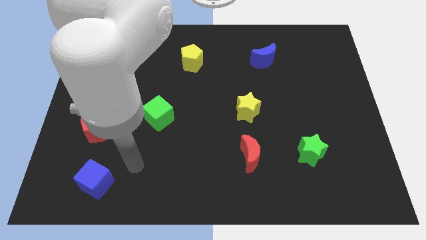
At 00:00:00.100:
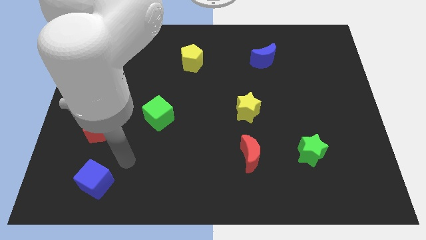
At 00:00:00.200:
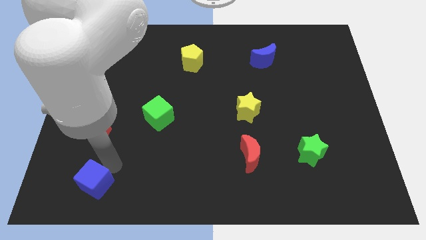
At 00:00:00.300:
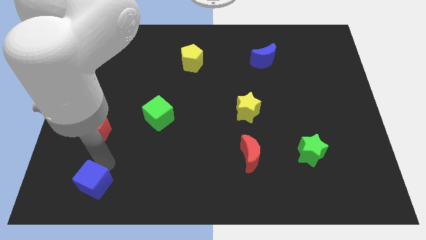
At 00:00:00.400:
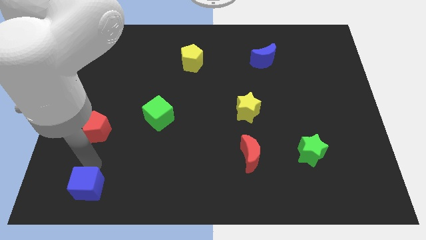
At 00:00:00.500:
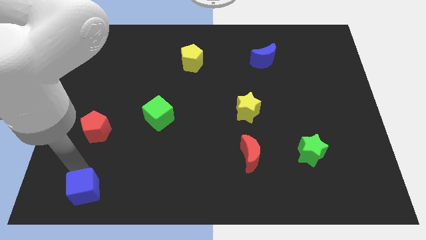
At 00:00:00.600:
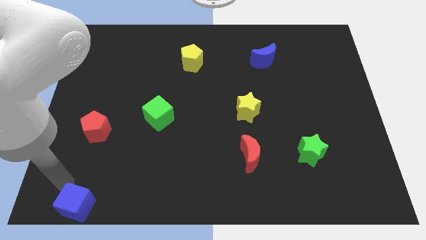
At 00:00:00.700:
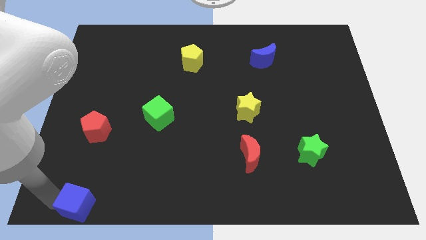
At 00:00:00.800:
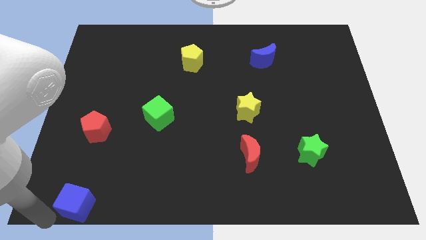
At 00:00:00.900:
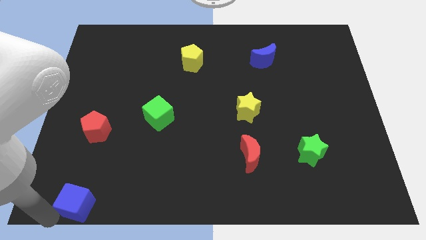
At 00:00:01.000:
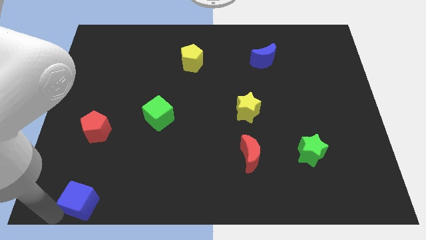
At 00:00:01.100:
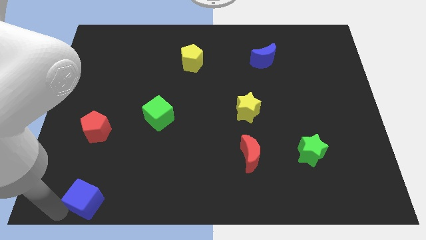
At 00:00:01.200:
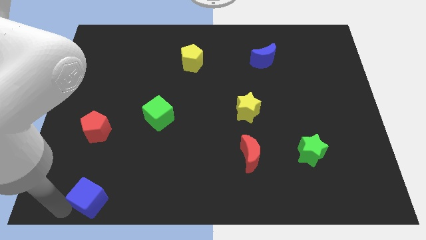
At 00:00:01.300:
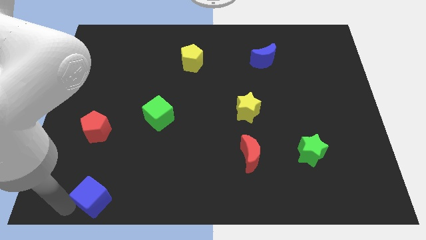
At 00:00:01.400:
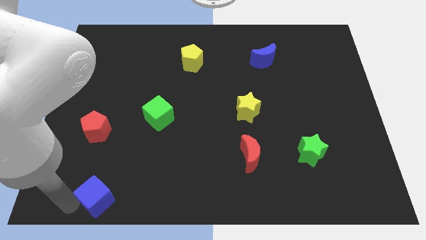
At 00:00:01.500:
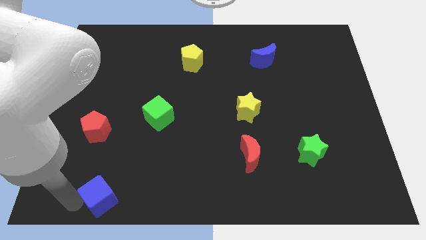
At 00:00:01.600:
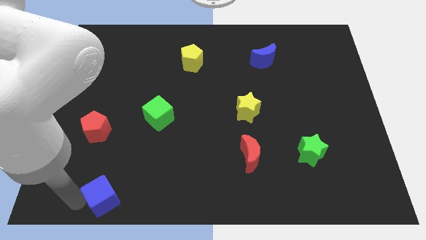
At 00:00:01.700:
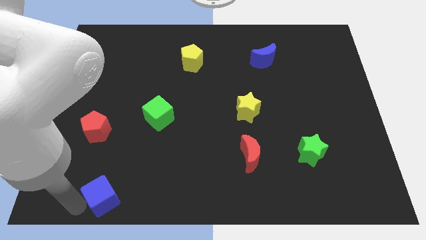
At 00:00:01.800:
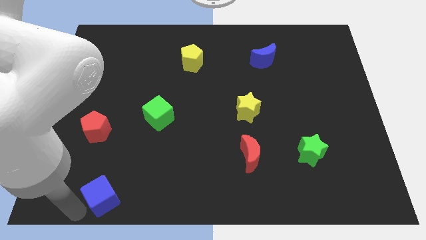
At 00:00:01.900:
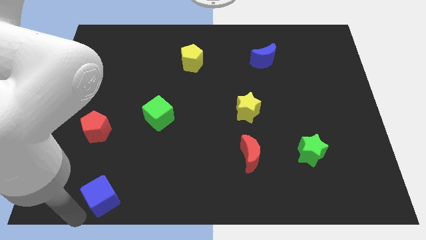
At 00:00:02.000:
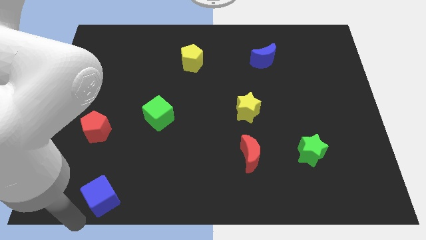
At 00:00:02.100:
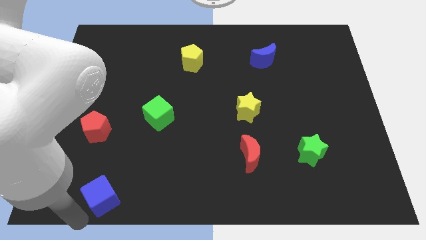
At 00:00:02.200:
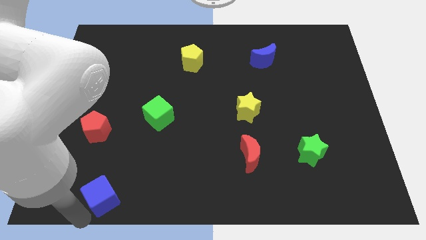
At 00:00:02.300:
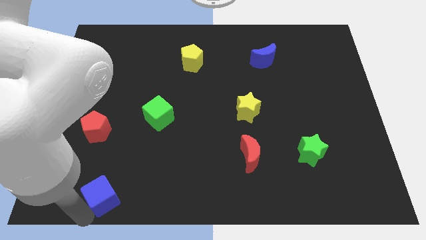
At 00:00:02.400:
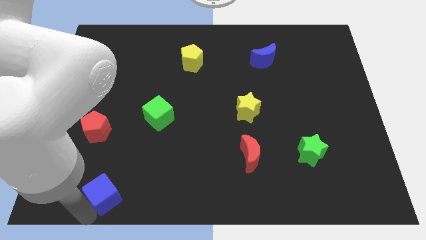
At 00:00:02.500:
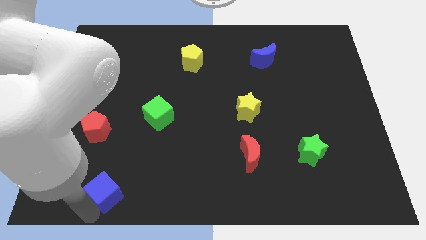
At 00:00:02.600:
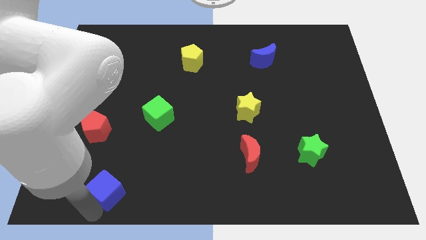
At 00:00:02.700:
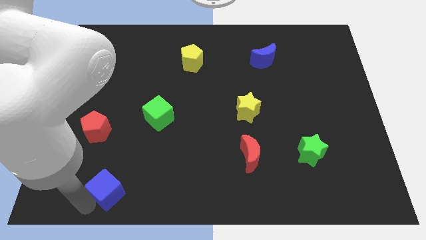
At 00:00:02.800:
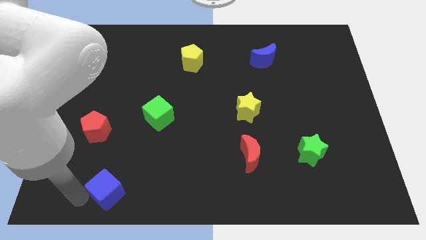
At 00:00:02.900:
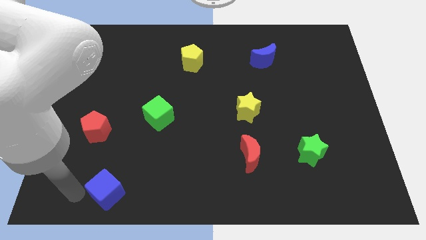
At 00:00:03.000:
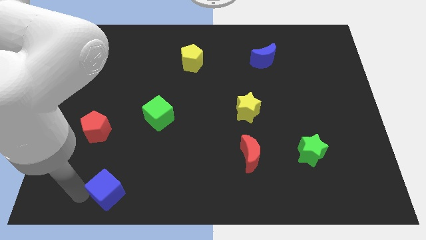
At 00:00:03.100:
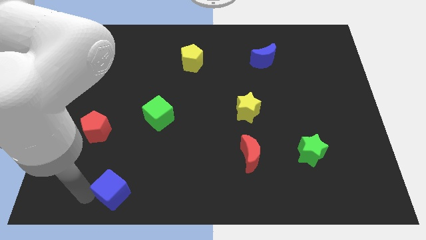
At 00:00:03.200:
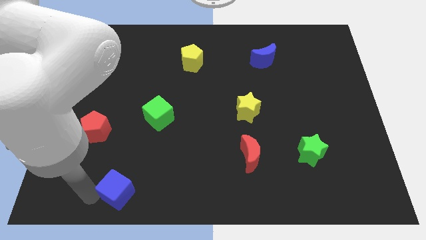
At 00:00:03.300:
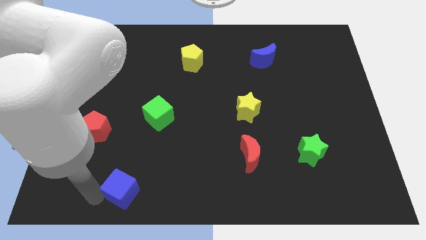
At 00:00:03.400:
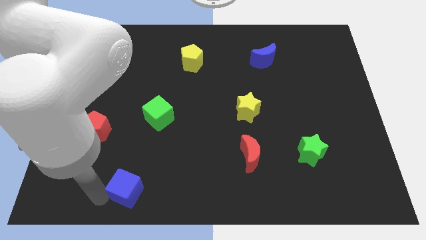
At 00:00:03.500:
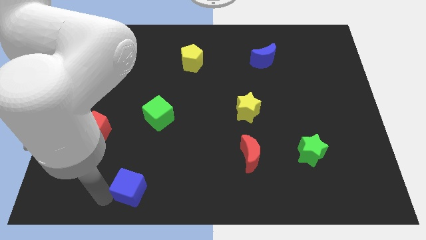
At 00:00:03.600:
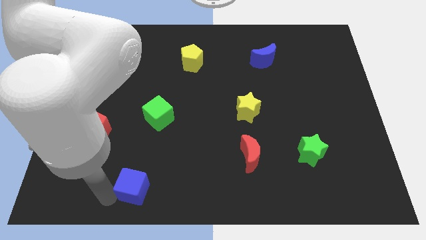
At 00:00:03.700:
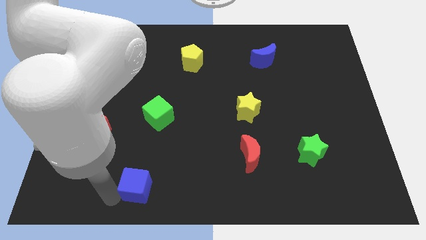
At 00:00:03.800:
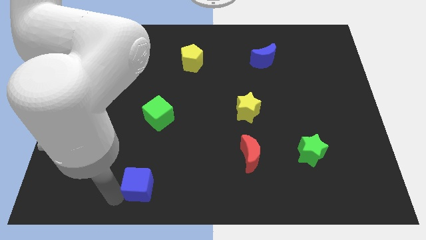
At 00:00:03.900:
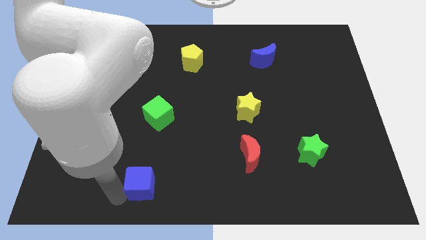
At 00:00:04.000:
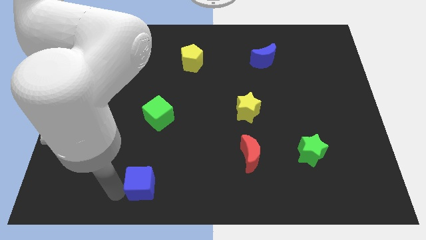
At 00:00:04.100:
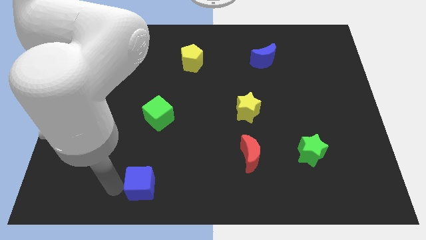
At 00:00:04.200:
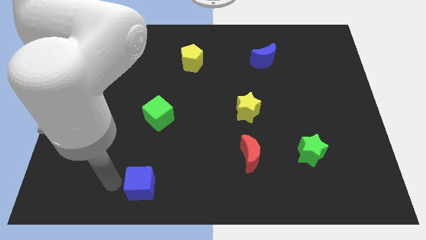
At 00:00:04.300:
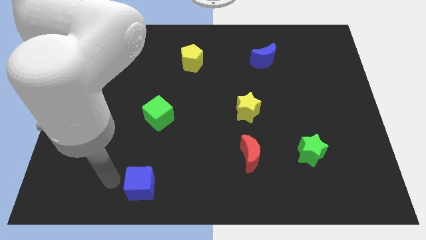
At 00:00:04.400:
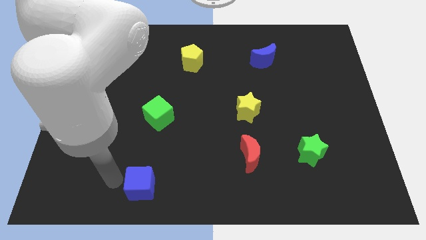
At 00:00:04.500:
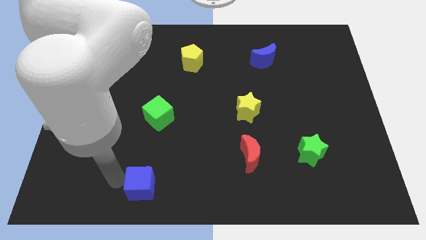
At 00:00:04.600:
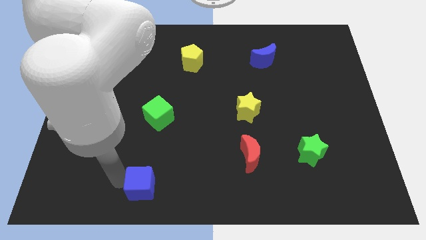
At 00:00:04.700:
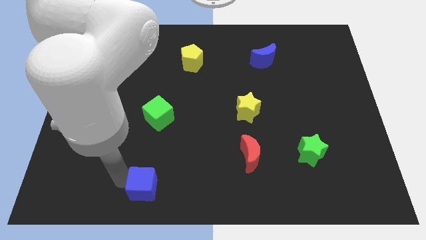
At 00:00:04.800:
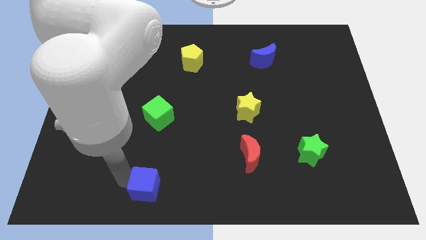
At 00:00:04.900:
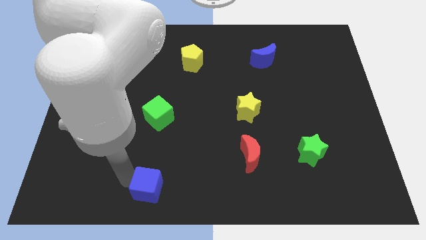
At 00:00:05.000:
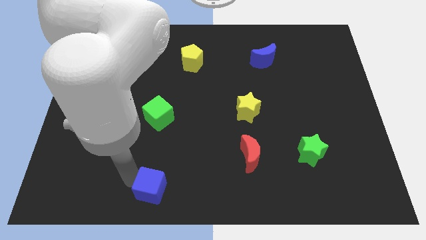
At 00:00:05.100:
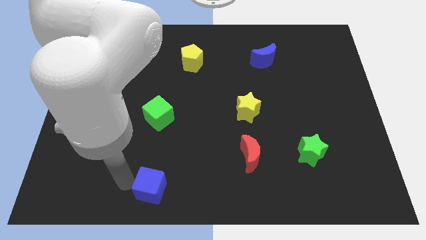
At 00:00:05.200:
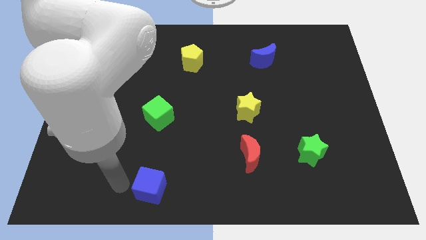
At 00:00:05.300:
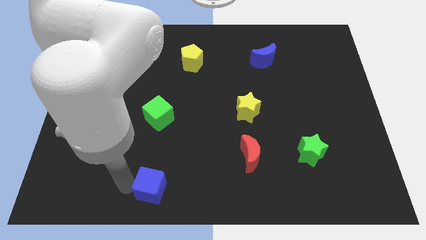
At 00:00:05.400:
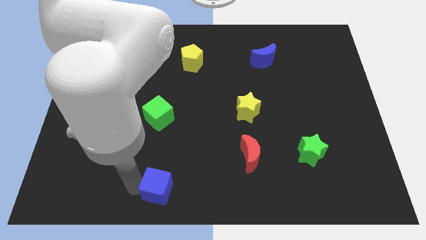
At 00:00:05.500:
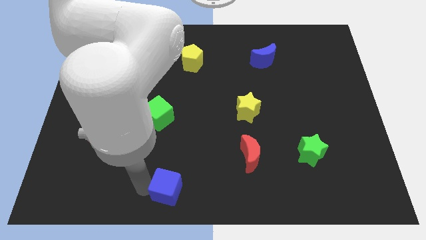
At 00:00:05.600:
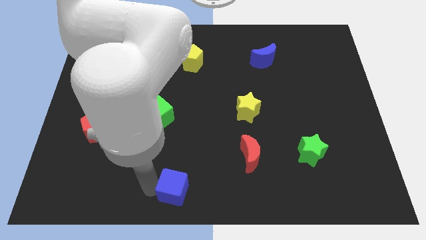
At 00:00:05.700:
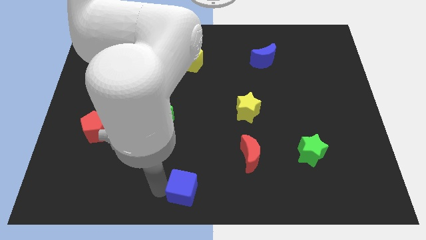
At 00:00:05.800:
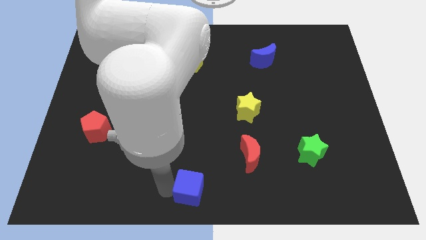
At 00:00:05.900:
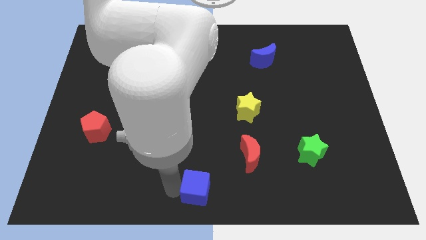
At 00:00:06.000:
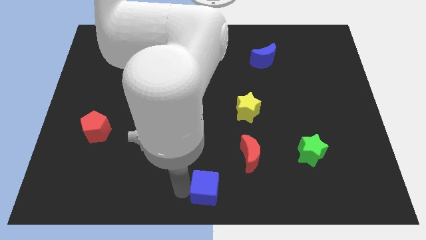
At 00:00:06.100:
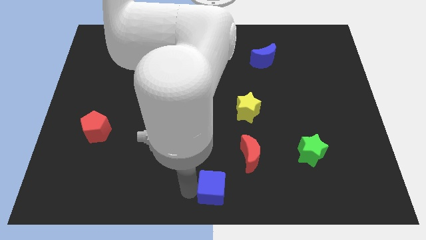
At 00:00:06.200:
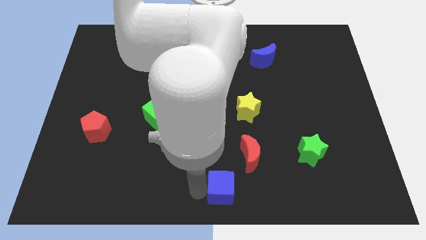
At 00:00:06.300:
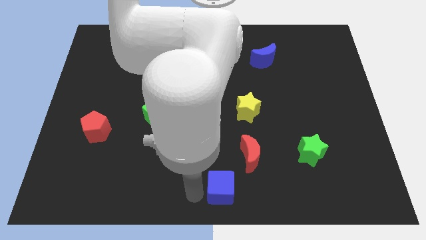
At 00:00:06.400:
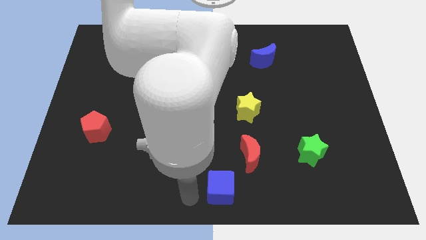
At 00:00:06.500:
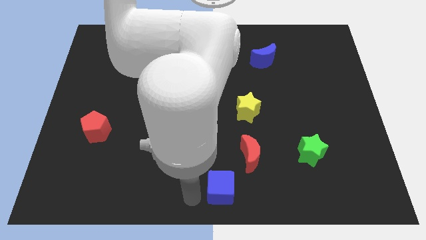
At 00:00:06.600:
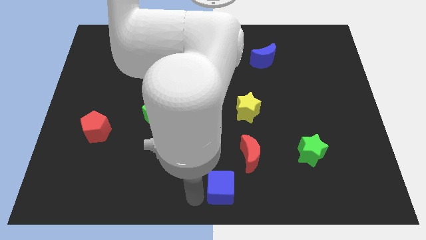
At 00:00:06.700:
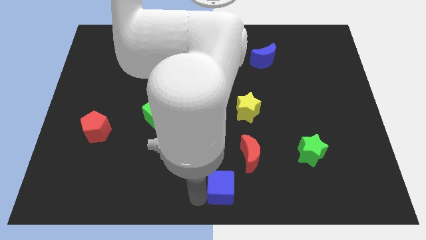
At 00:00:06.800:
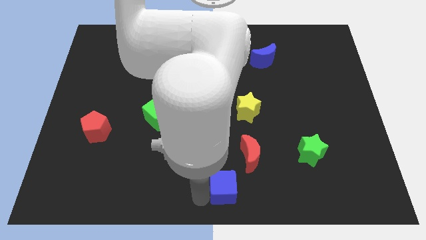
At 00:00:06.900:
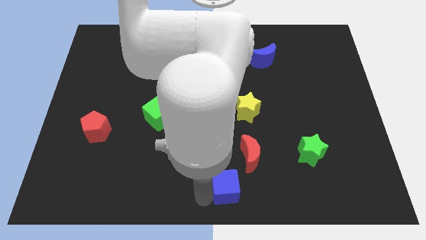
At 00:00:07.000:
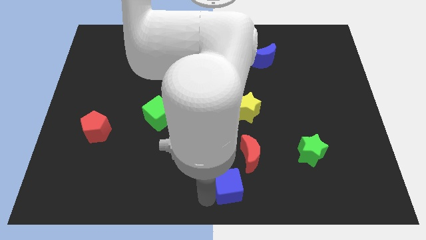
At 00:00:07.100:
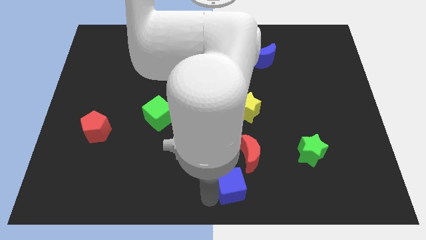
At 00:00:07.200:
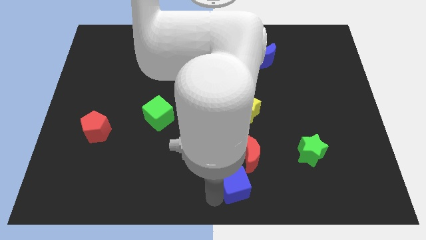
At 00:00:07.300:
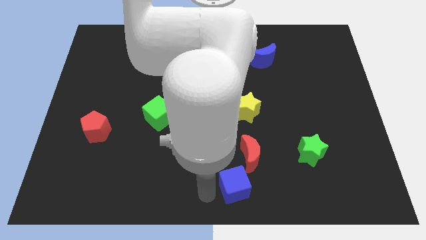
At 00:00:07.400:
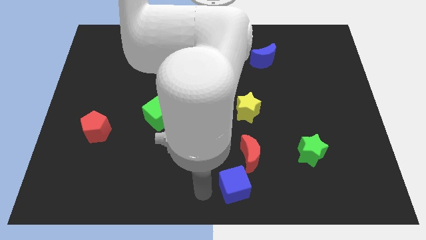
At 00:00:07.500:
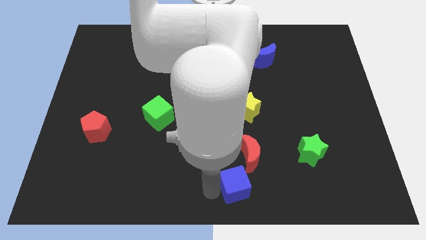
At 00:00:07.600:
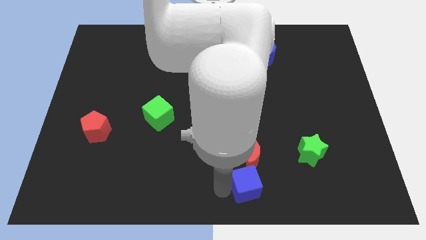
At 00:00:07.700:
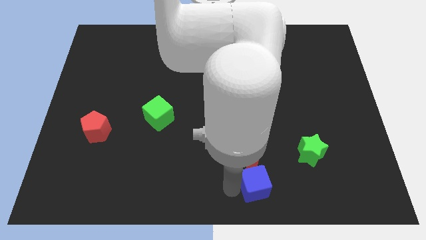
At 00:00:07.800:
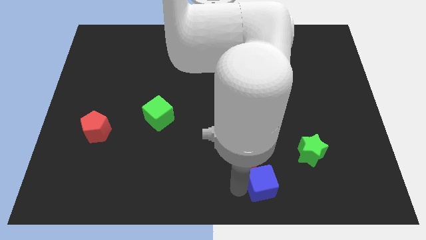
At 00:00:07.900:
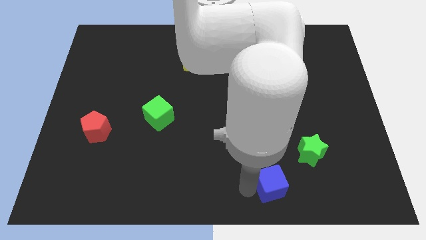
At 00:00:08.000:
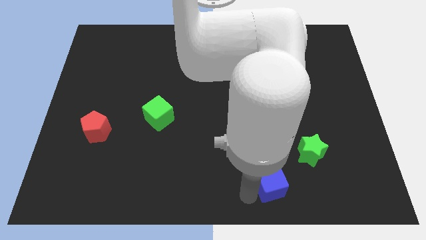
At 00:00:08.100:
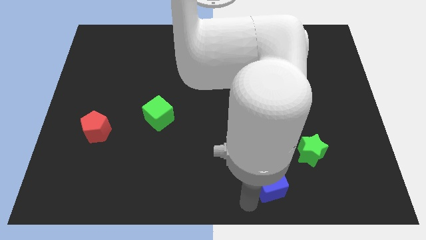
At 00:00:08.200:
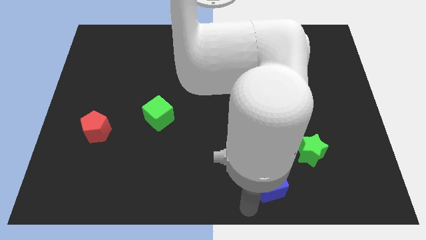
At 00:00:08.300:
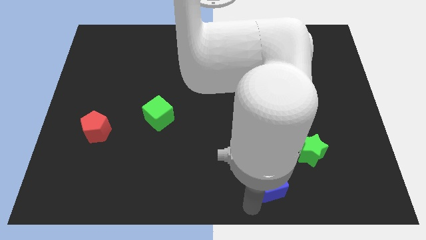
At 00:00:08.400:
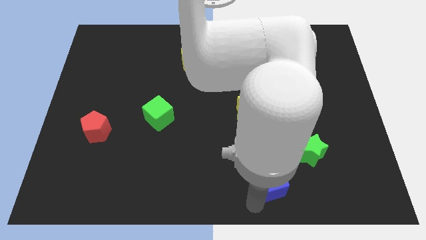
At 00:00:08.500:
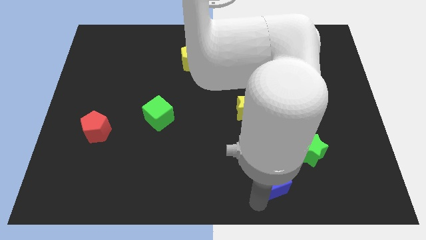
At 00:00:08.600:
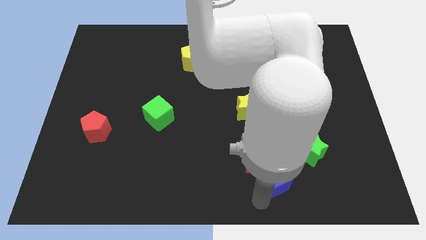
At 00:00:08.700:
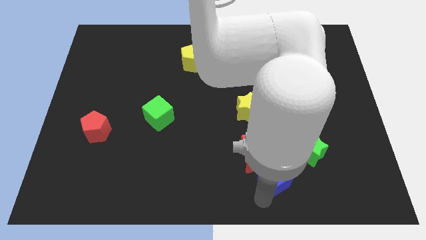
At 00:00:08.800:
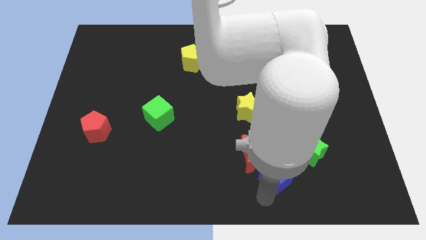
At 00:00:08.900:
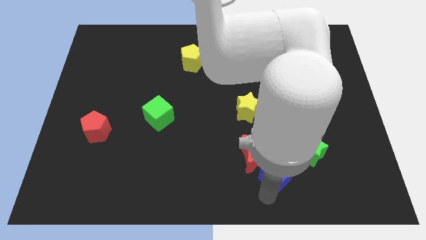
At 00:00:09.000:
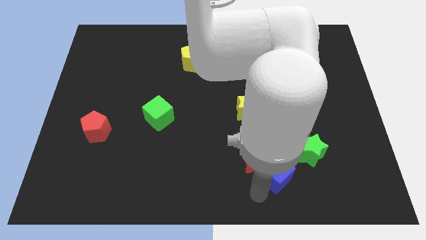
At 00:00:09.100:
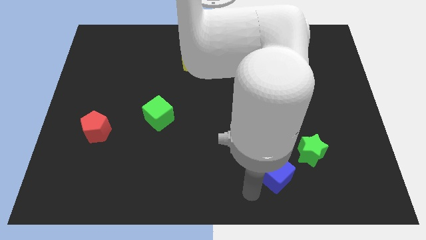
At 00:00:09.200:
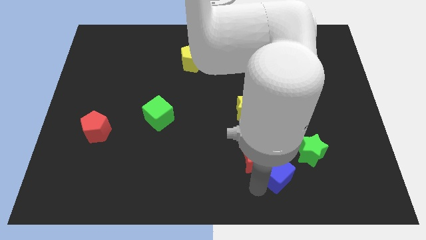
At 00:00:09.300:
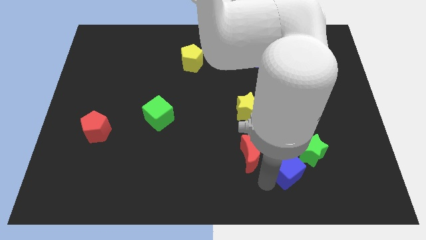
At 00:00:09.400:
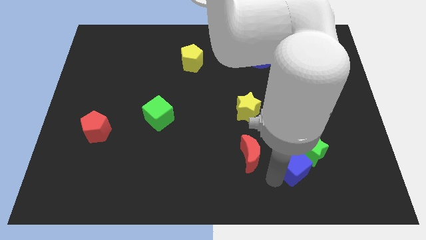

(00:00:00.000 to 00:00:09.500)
push the blue cube next to the green star
